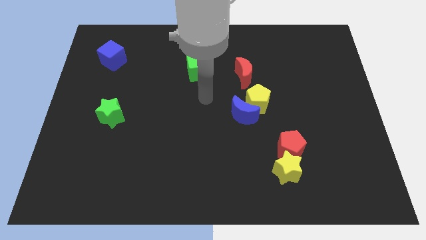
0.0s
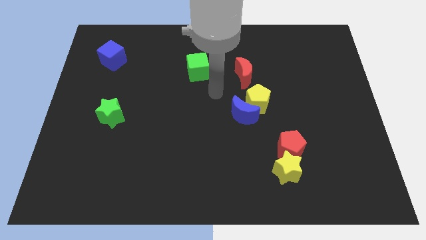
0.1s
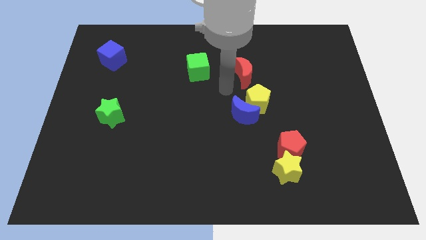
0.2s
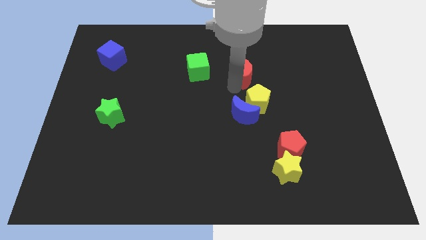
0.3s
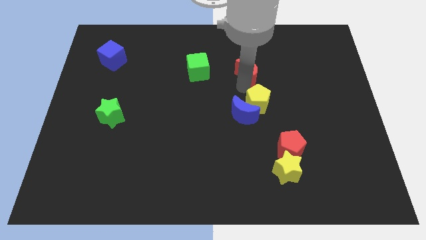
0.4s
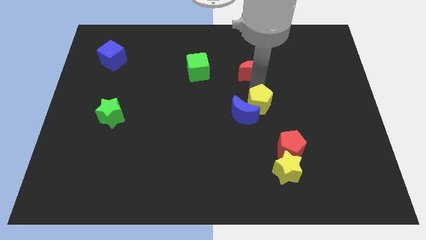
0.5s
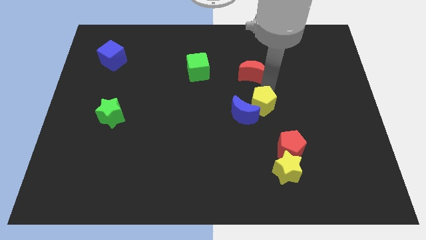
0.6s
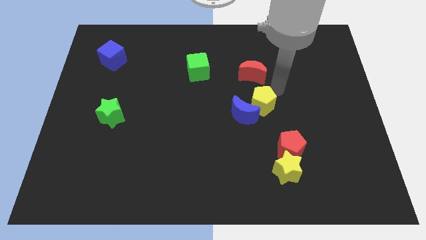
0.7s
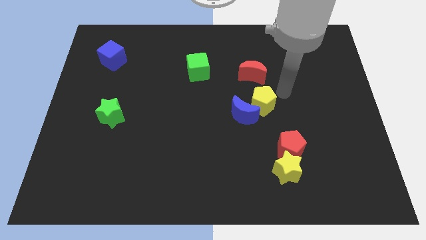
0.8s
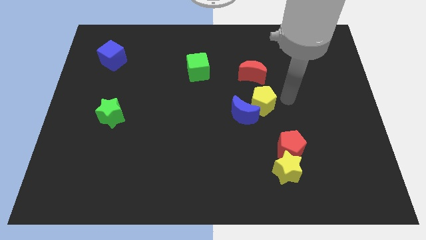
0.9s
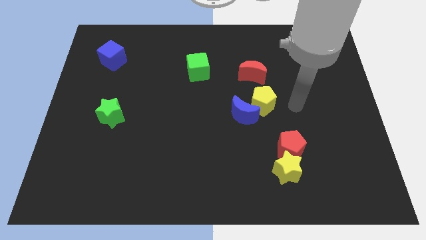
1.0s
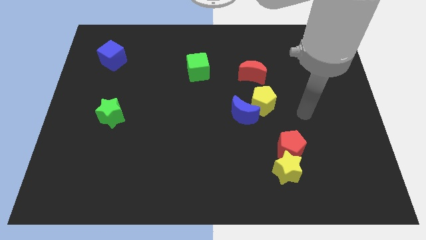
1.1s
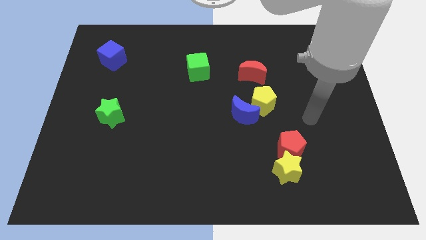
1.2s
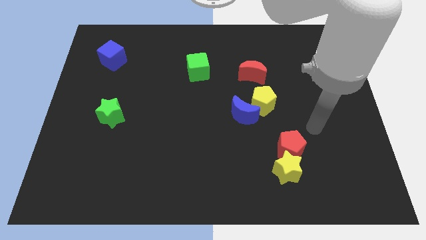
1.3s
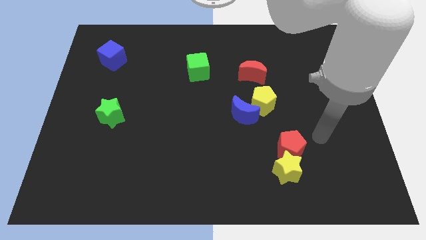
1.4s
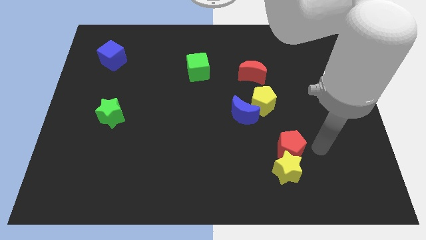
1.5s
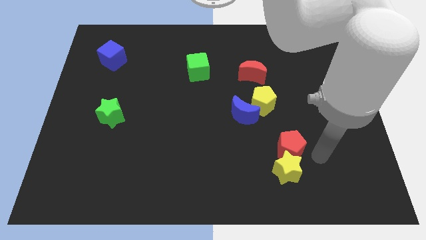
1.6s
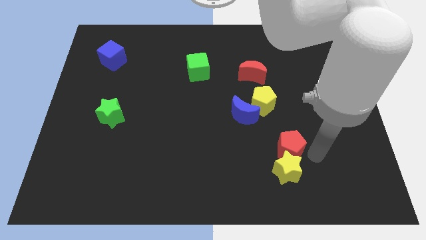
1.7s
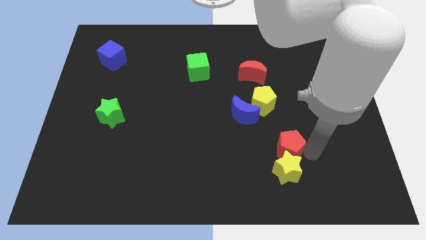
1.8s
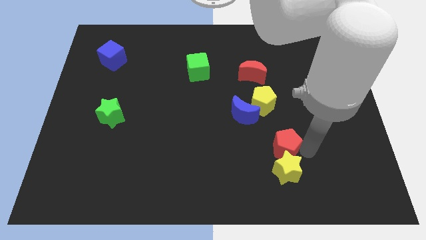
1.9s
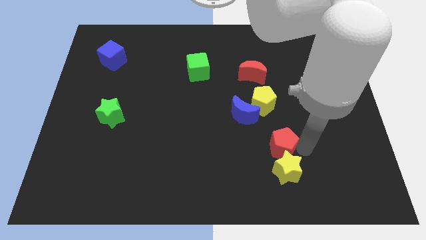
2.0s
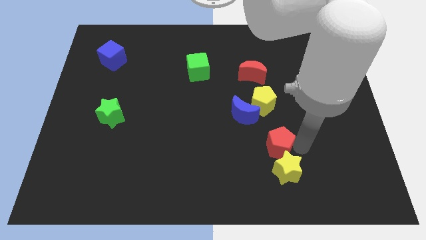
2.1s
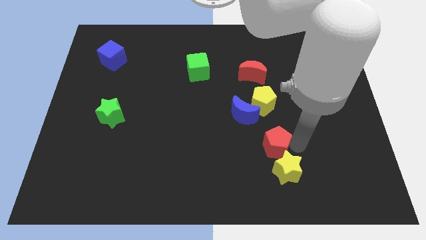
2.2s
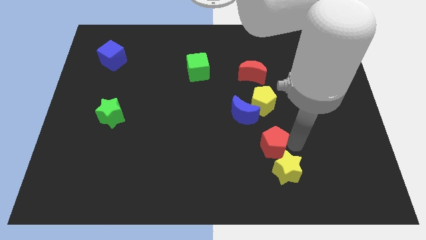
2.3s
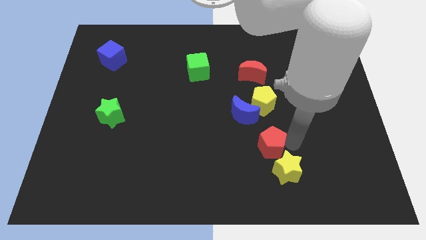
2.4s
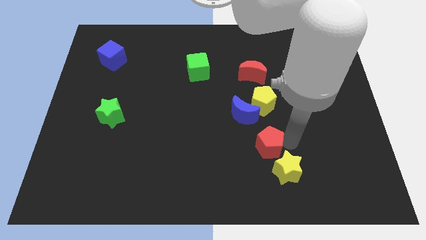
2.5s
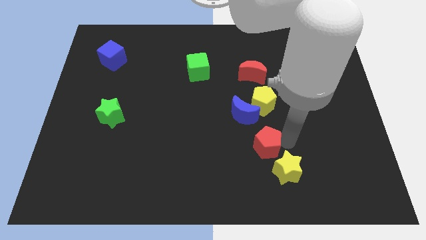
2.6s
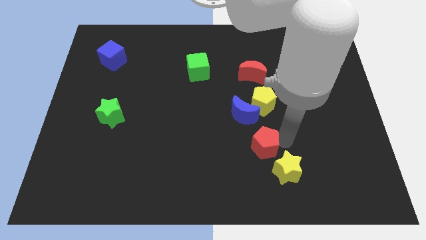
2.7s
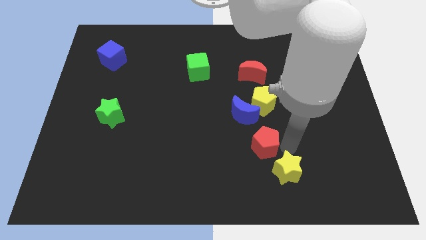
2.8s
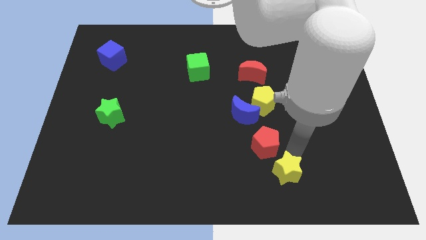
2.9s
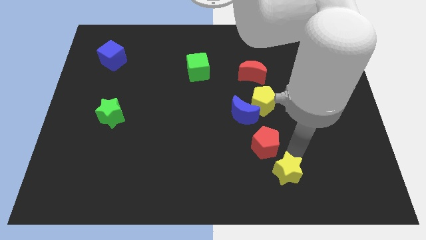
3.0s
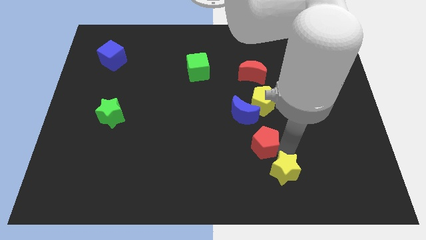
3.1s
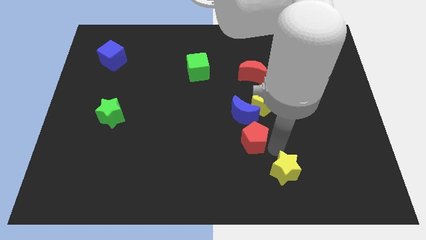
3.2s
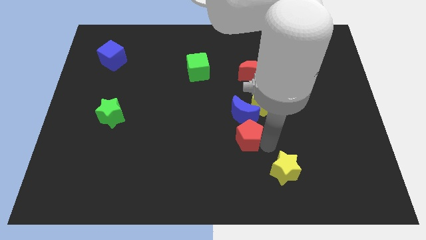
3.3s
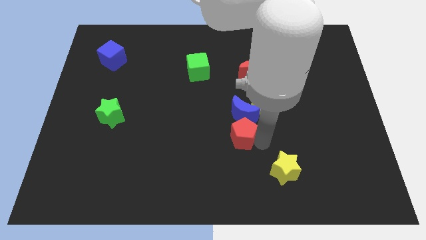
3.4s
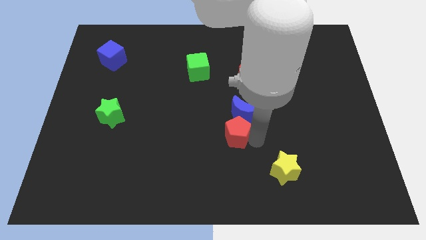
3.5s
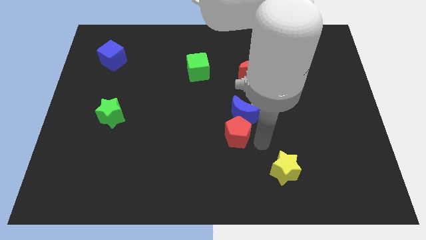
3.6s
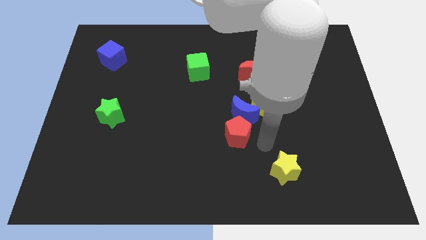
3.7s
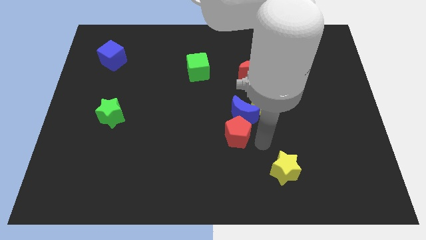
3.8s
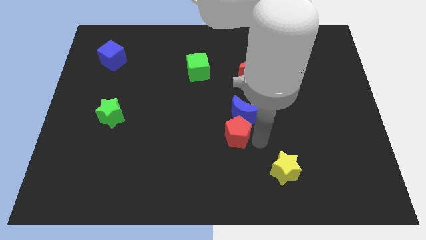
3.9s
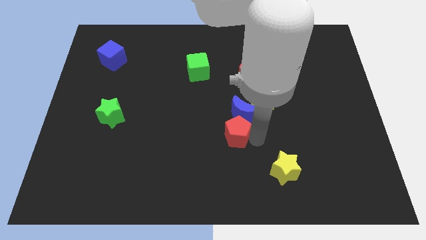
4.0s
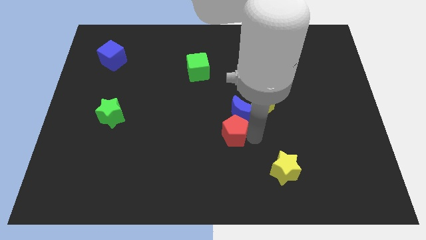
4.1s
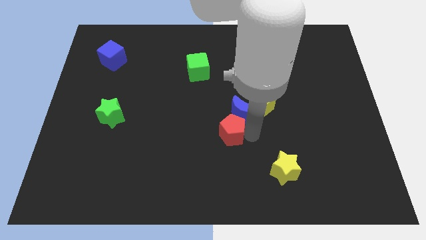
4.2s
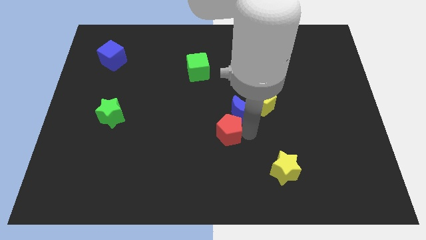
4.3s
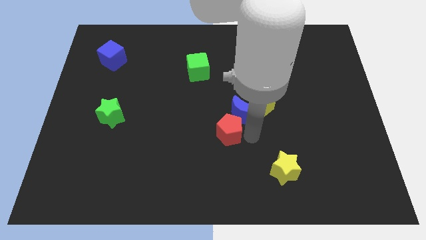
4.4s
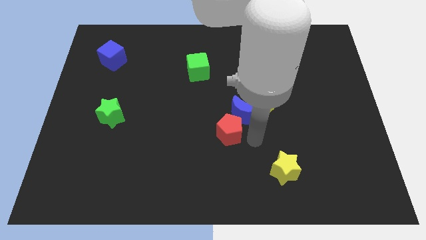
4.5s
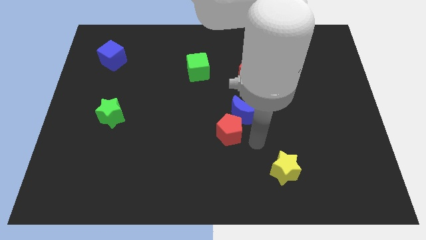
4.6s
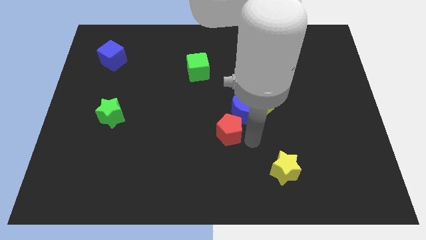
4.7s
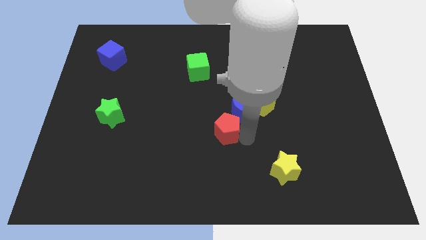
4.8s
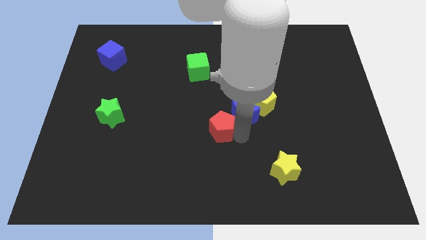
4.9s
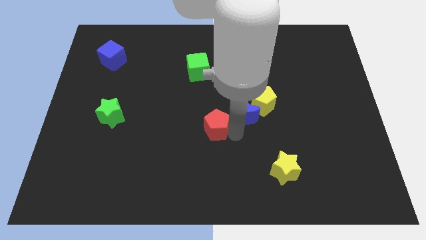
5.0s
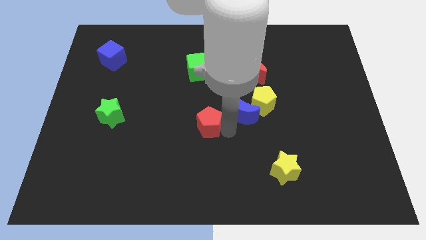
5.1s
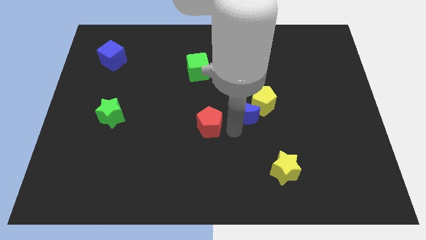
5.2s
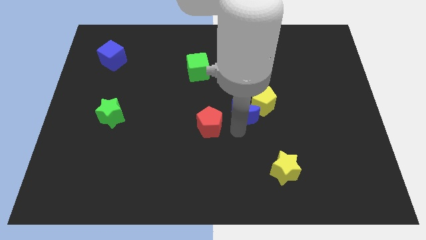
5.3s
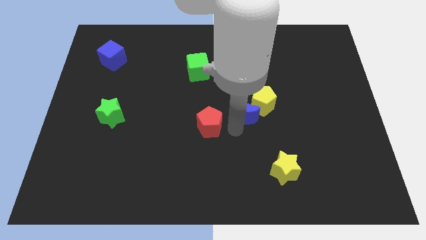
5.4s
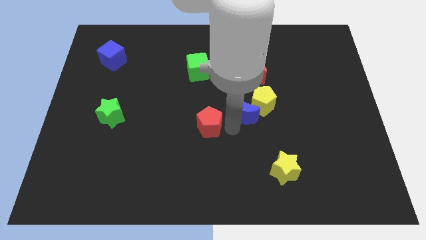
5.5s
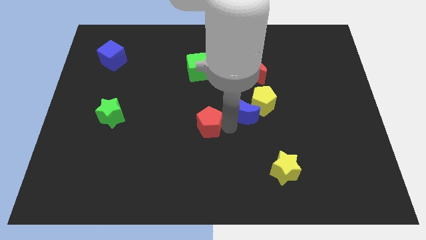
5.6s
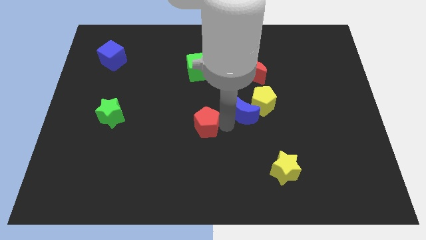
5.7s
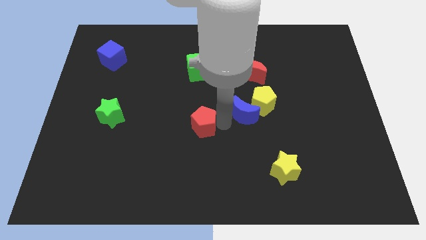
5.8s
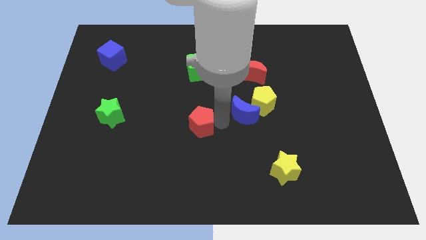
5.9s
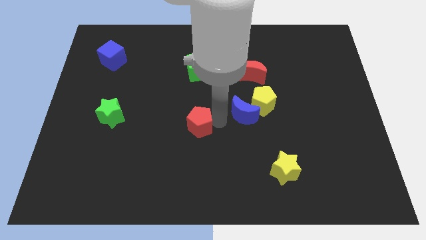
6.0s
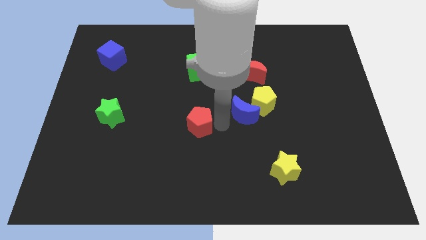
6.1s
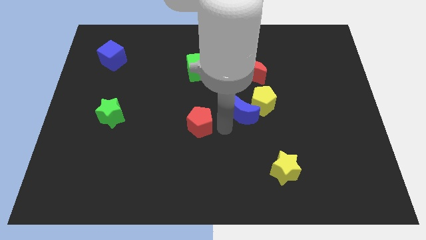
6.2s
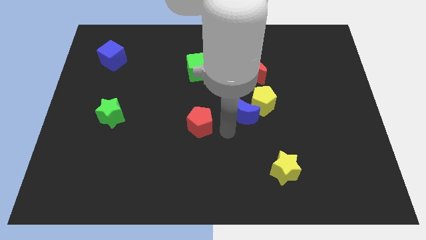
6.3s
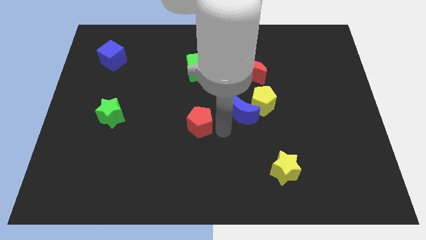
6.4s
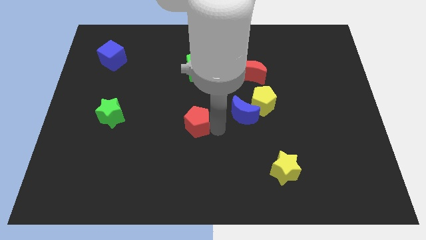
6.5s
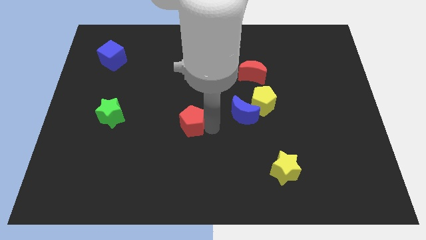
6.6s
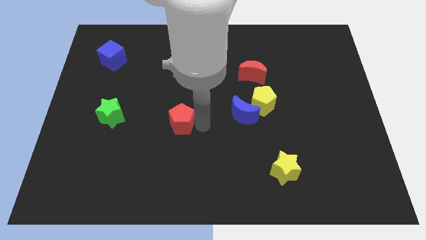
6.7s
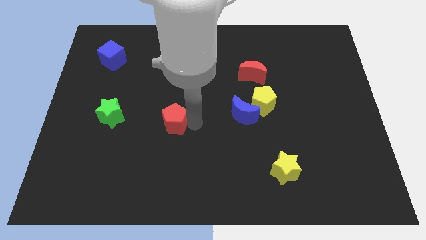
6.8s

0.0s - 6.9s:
put the red pentagon right of the green star
